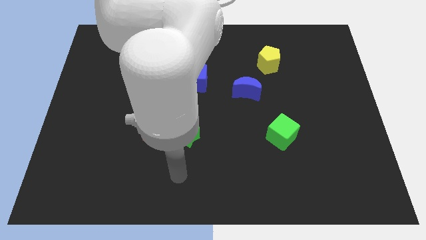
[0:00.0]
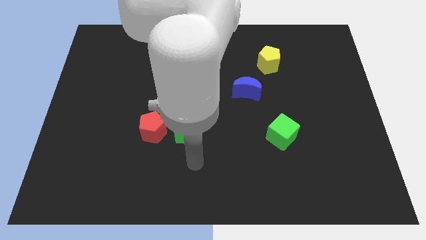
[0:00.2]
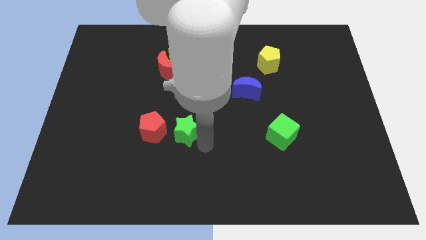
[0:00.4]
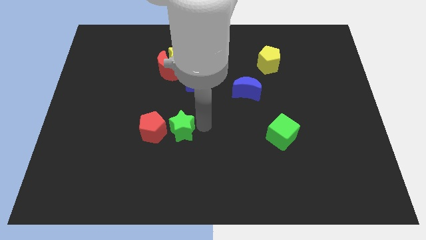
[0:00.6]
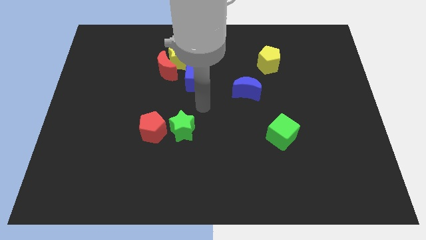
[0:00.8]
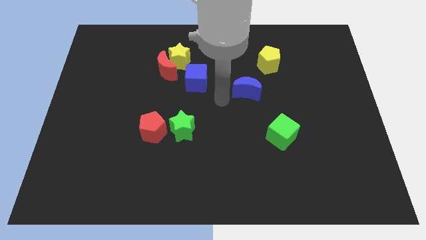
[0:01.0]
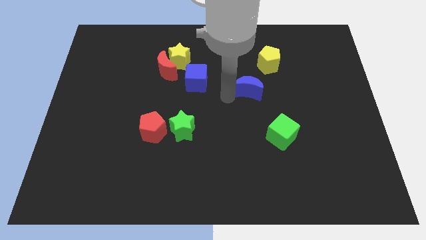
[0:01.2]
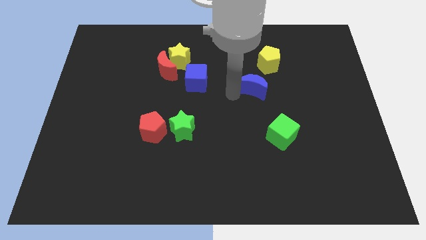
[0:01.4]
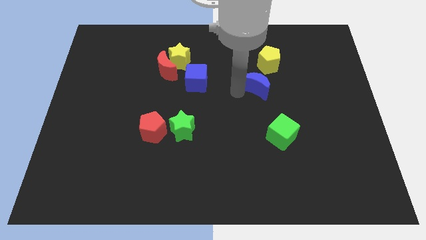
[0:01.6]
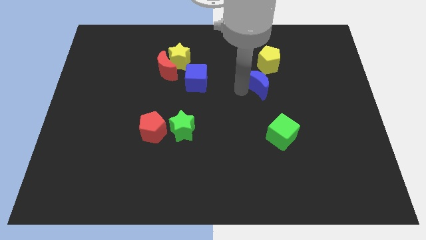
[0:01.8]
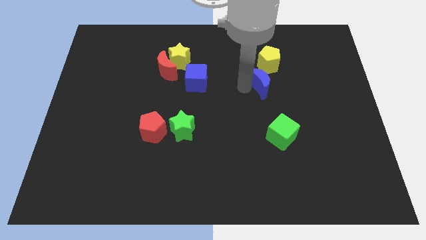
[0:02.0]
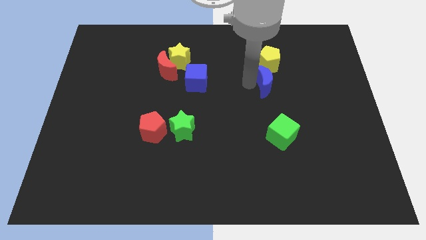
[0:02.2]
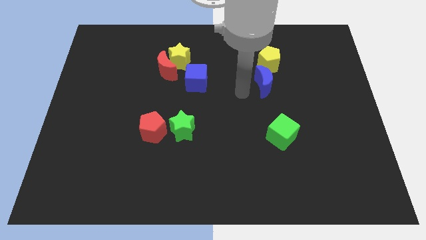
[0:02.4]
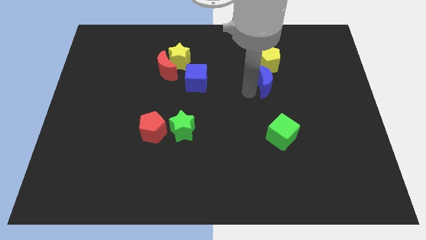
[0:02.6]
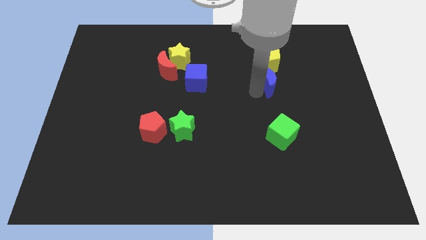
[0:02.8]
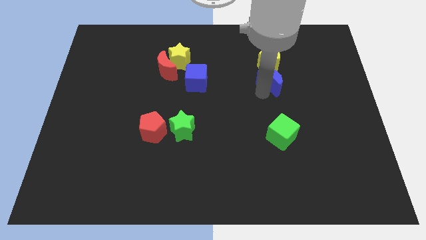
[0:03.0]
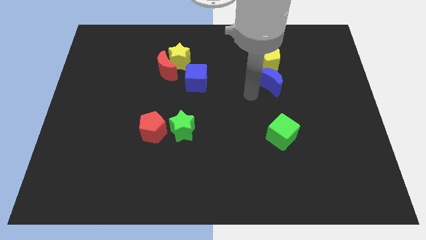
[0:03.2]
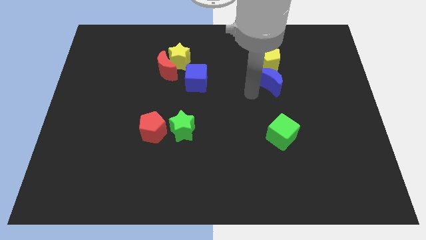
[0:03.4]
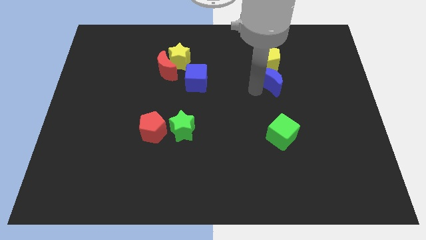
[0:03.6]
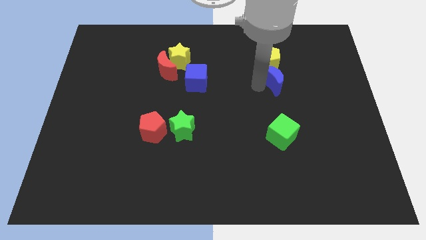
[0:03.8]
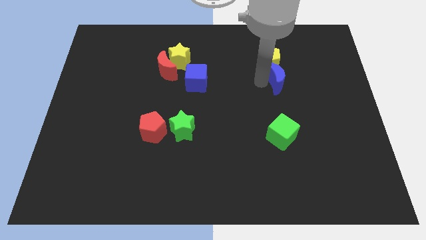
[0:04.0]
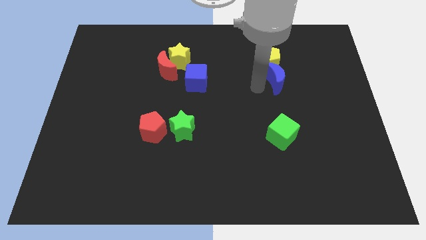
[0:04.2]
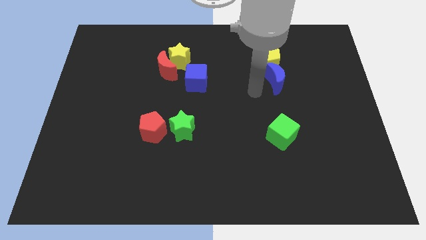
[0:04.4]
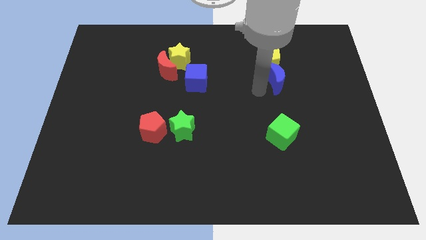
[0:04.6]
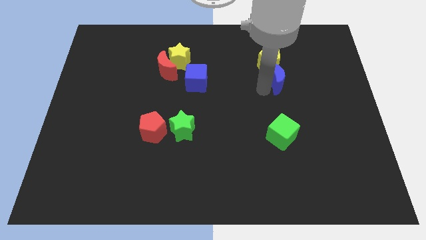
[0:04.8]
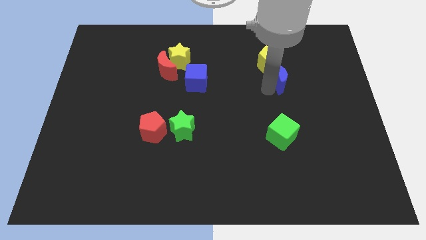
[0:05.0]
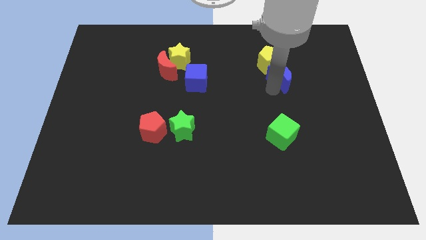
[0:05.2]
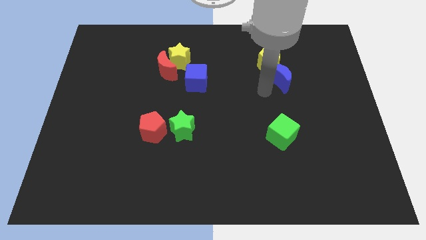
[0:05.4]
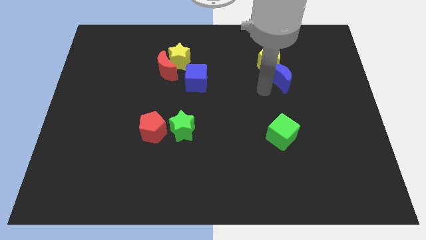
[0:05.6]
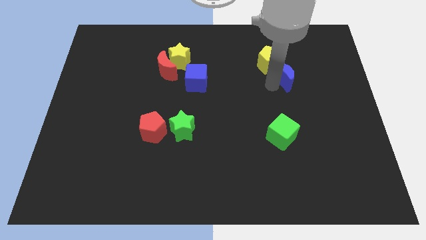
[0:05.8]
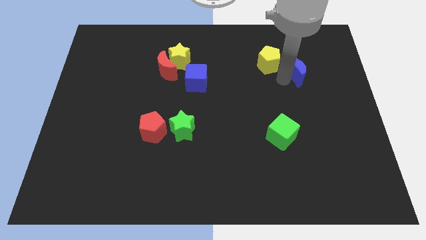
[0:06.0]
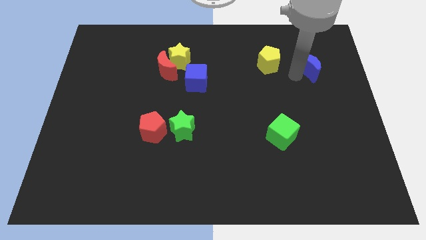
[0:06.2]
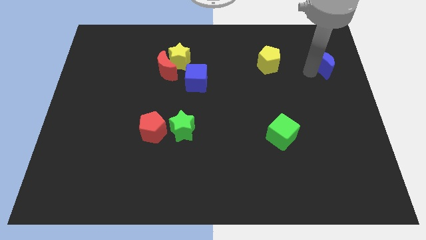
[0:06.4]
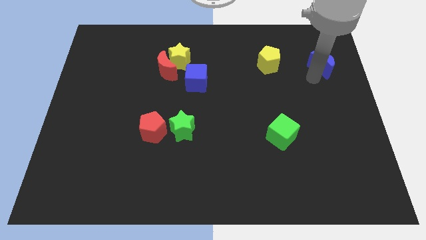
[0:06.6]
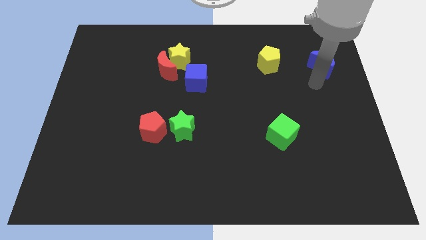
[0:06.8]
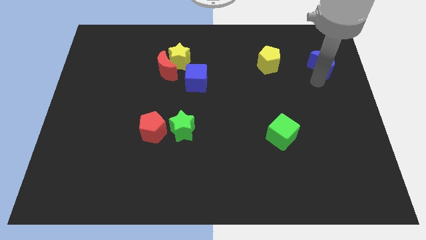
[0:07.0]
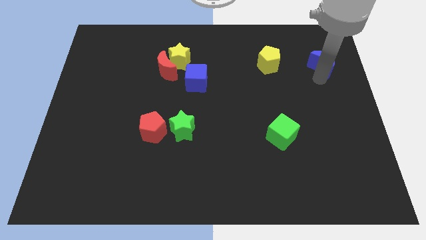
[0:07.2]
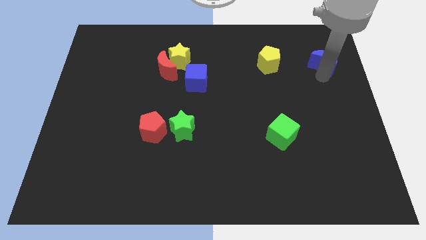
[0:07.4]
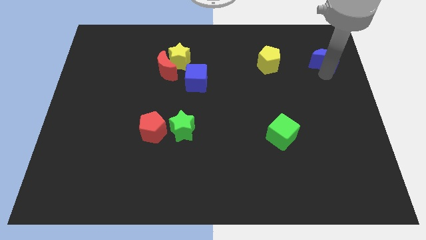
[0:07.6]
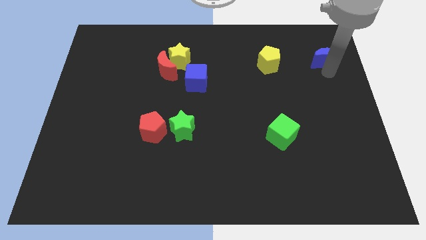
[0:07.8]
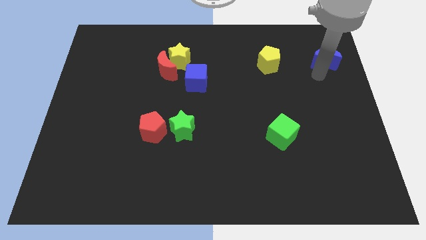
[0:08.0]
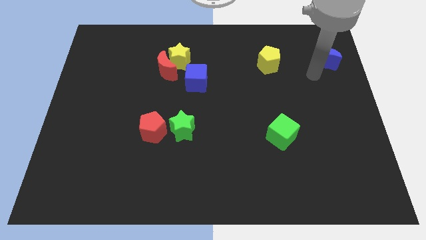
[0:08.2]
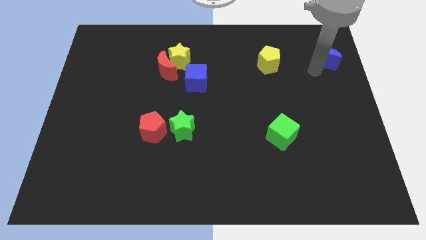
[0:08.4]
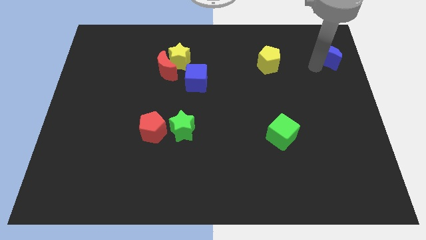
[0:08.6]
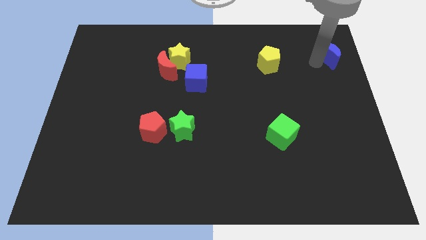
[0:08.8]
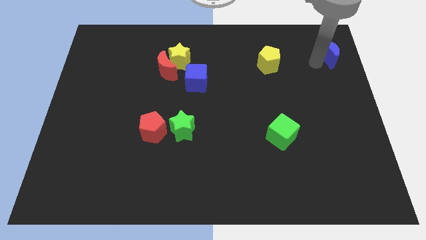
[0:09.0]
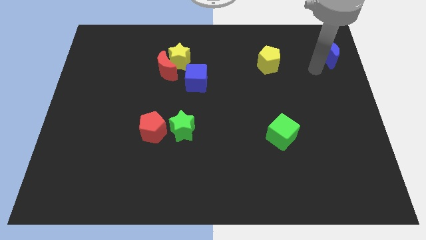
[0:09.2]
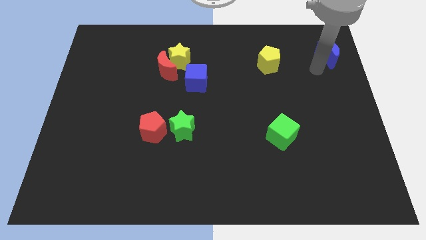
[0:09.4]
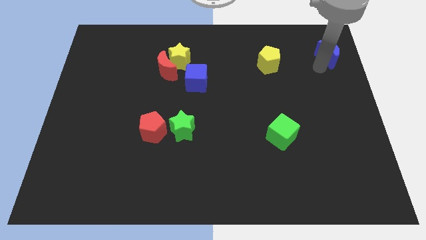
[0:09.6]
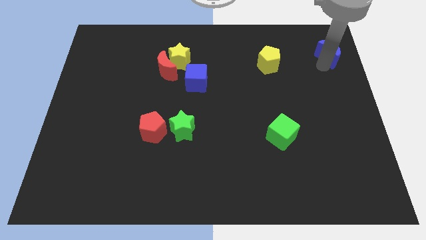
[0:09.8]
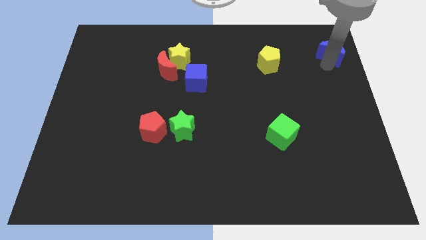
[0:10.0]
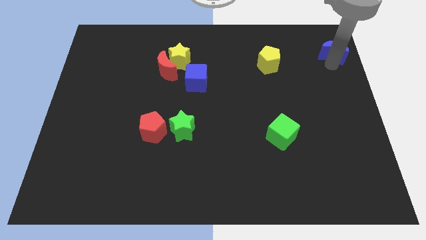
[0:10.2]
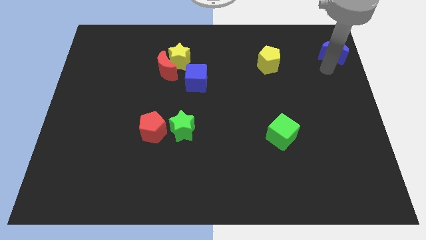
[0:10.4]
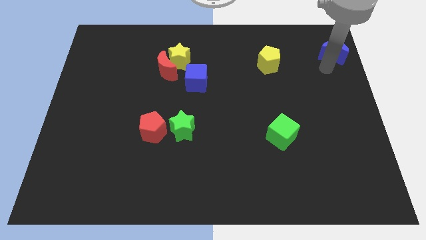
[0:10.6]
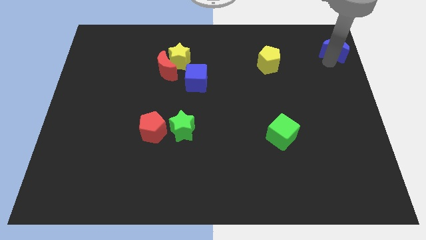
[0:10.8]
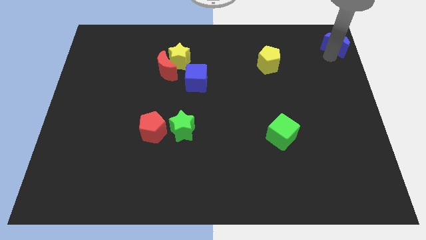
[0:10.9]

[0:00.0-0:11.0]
put the blue moon to the top right corner

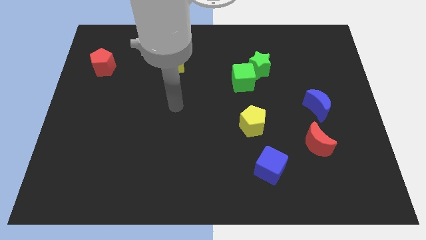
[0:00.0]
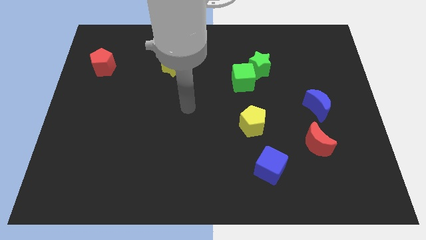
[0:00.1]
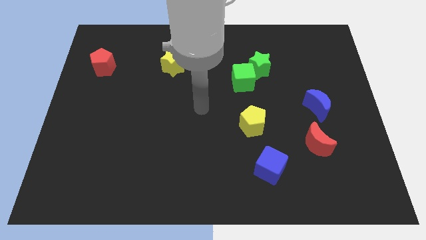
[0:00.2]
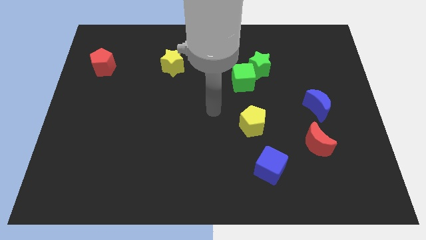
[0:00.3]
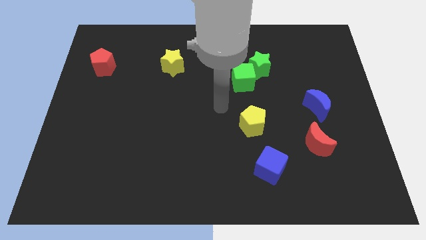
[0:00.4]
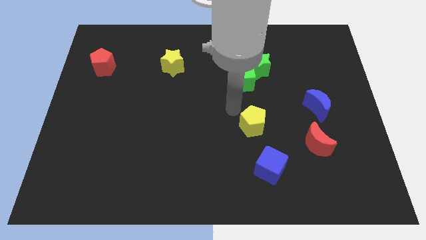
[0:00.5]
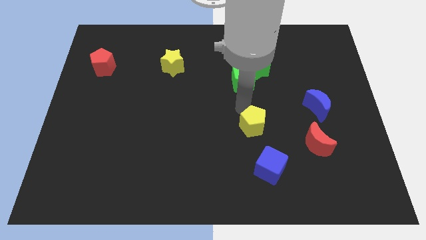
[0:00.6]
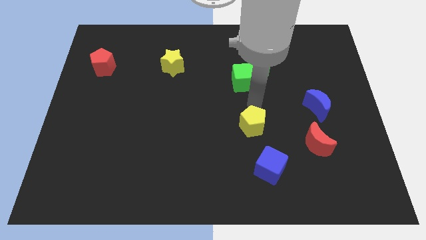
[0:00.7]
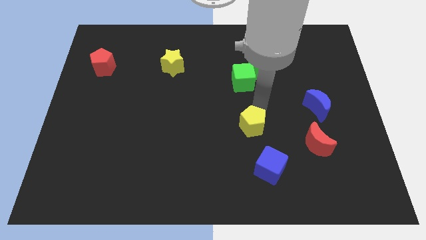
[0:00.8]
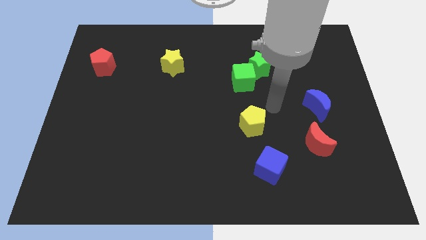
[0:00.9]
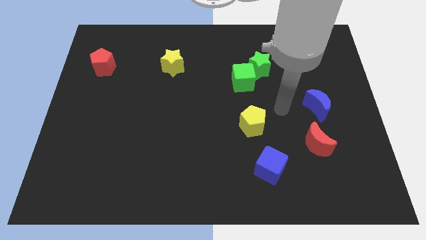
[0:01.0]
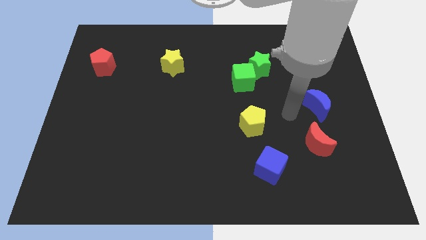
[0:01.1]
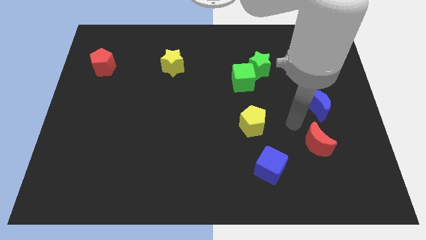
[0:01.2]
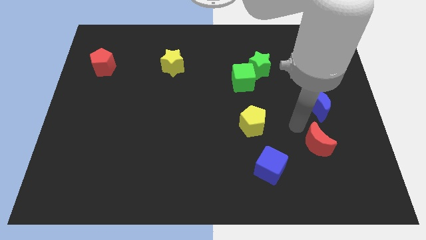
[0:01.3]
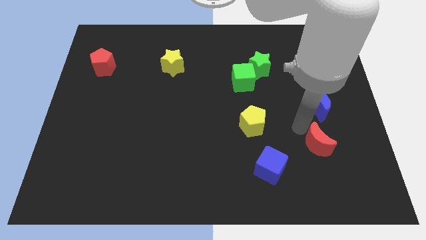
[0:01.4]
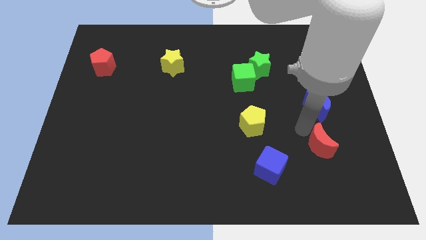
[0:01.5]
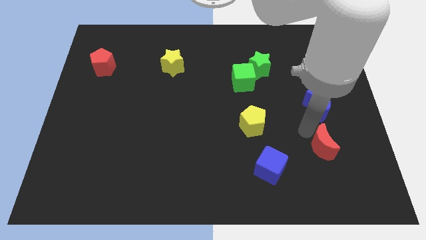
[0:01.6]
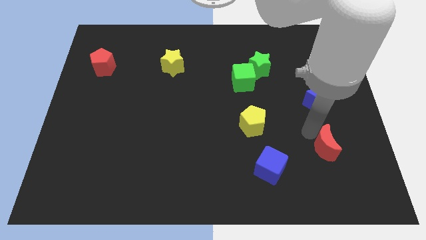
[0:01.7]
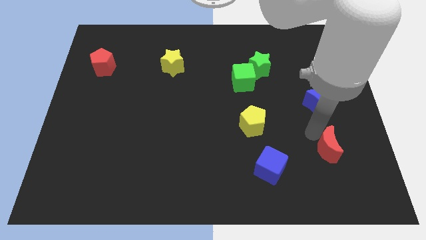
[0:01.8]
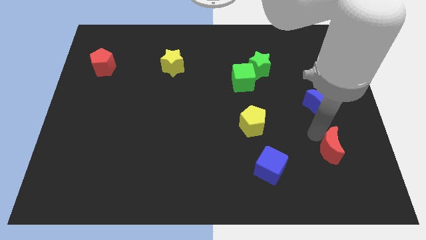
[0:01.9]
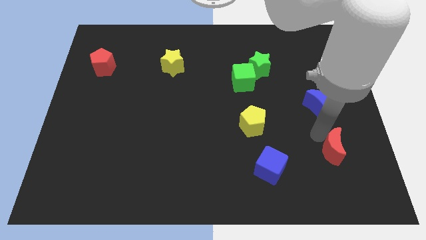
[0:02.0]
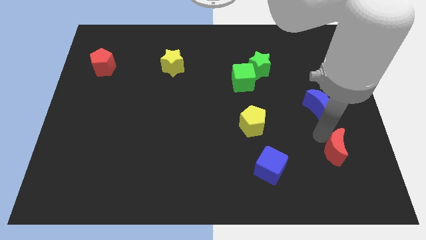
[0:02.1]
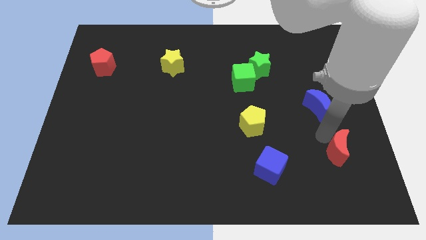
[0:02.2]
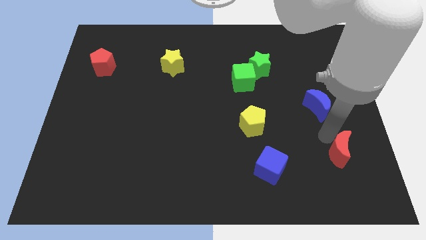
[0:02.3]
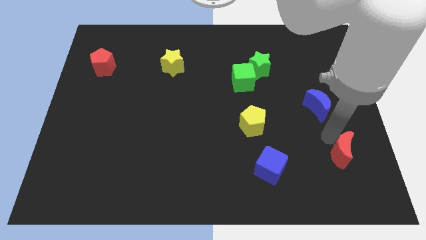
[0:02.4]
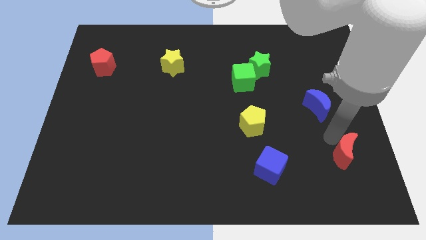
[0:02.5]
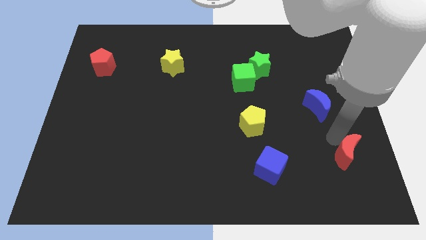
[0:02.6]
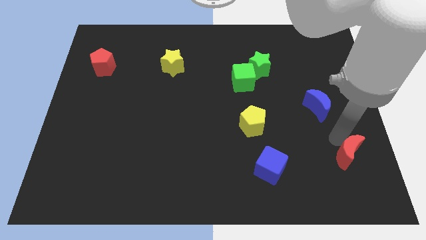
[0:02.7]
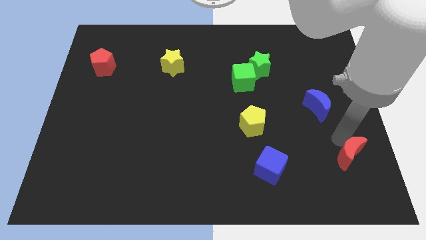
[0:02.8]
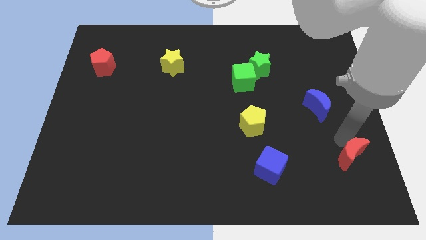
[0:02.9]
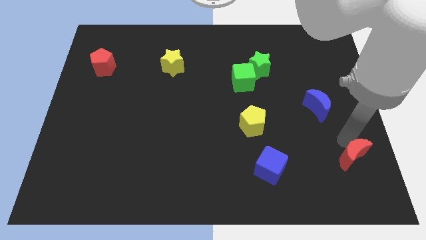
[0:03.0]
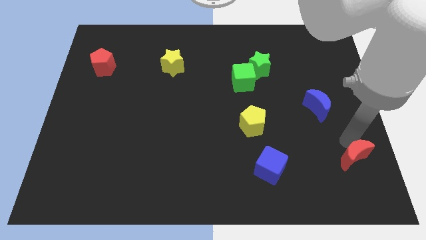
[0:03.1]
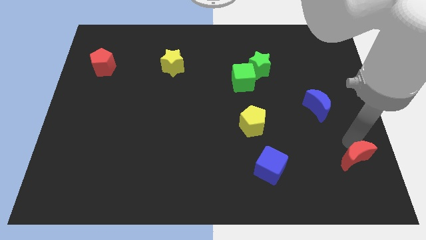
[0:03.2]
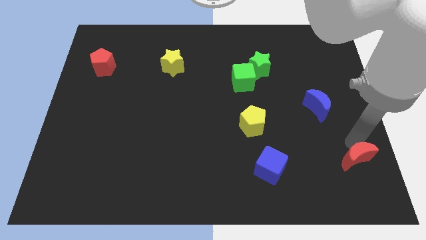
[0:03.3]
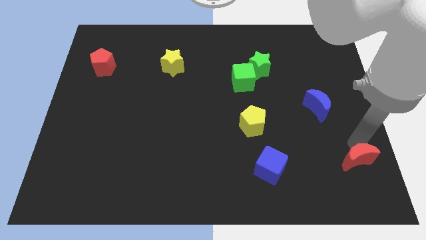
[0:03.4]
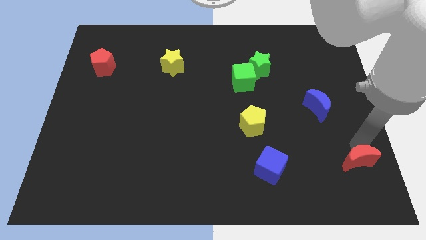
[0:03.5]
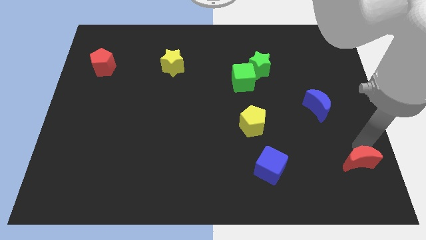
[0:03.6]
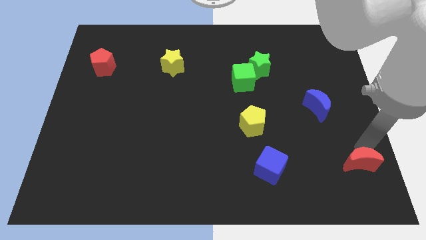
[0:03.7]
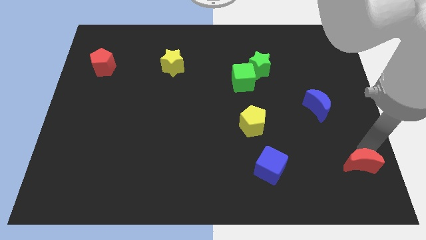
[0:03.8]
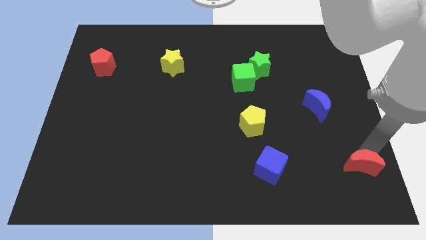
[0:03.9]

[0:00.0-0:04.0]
put the red moon to the bottom right
